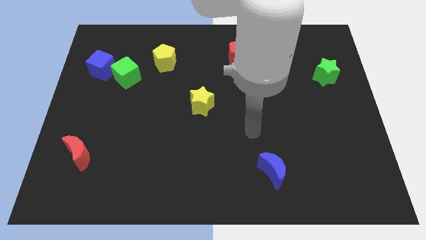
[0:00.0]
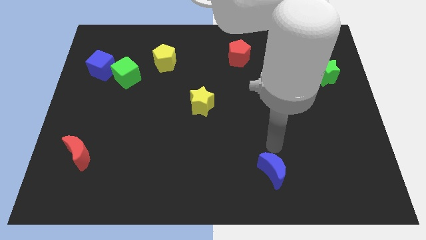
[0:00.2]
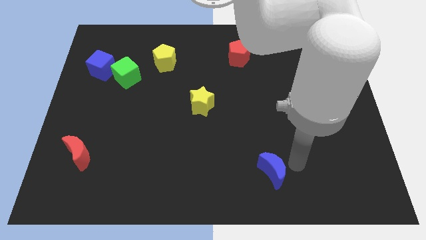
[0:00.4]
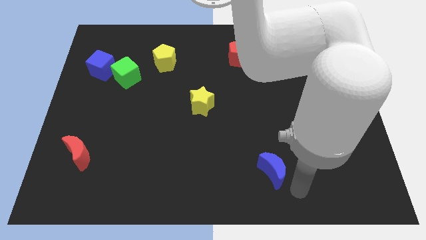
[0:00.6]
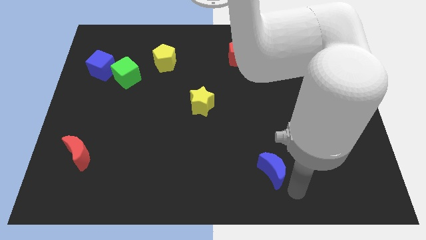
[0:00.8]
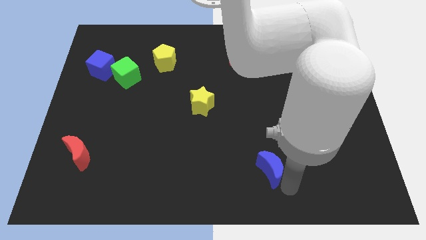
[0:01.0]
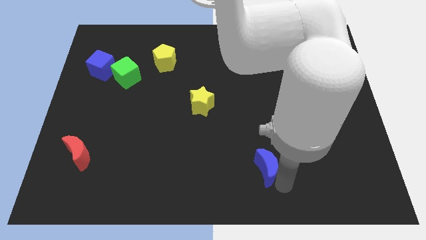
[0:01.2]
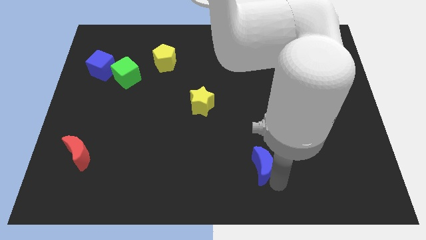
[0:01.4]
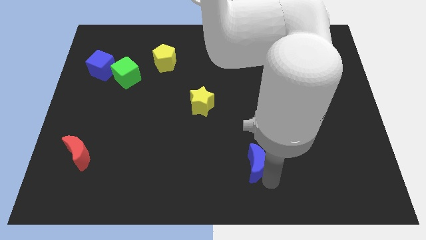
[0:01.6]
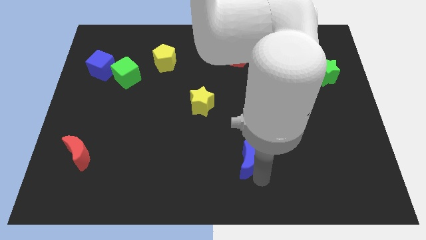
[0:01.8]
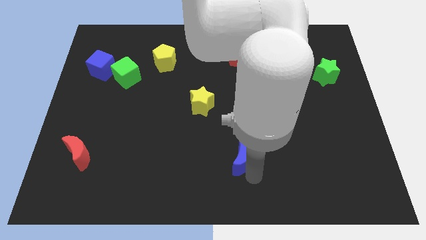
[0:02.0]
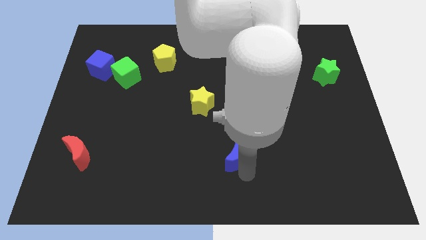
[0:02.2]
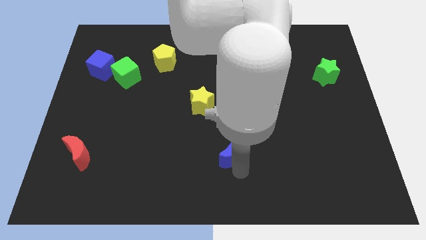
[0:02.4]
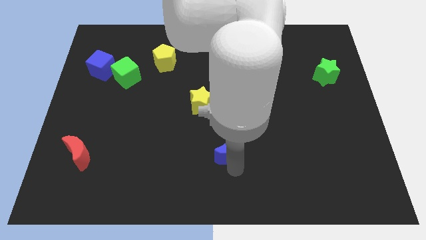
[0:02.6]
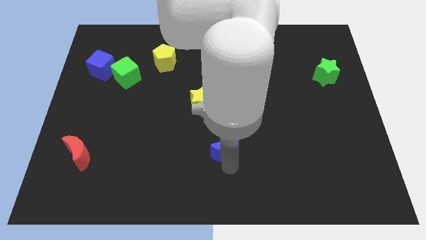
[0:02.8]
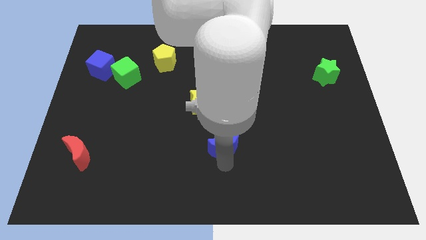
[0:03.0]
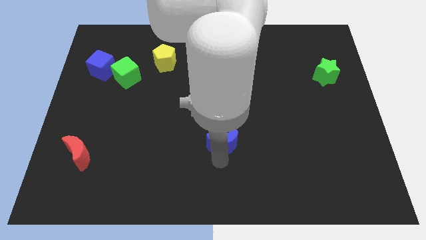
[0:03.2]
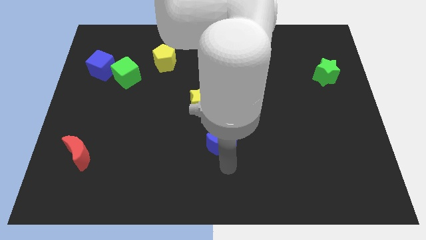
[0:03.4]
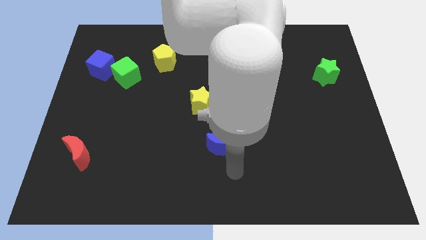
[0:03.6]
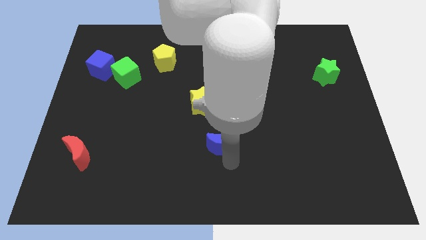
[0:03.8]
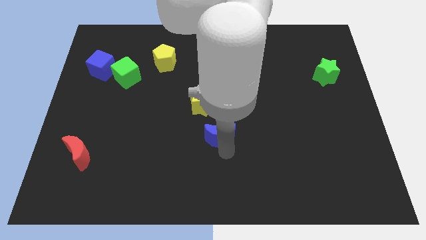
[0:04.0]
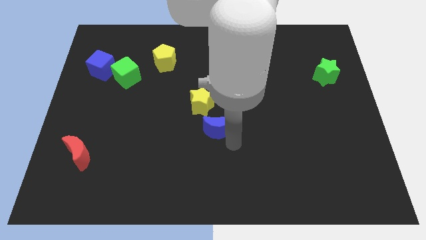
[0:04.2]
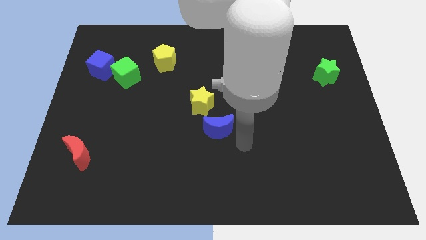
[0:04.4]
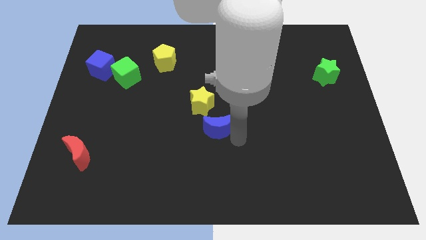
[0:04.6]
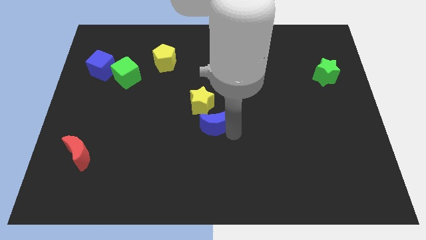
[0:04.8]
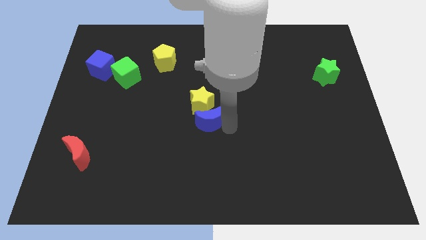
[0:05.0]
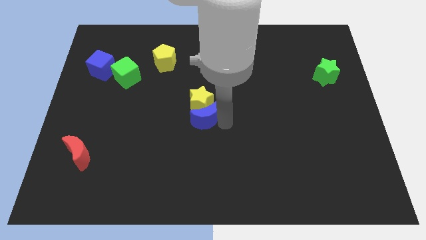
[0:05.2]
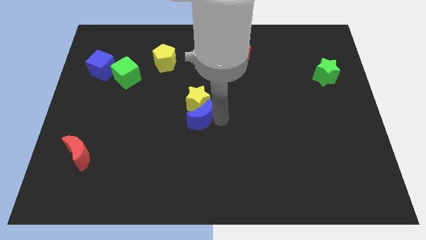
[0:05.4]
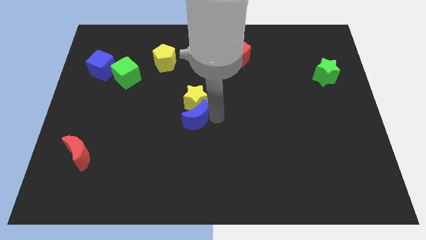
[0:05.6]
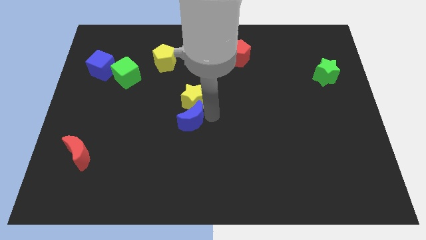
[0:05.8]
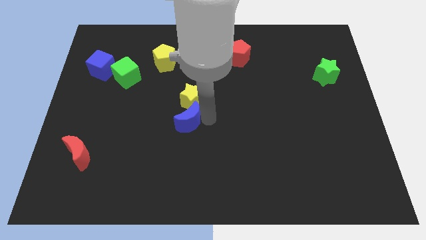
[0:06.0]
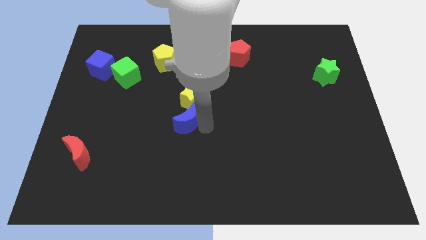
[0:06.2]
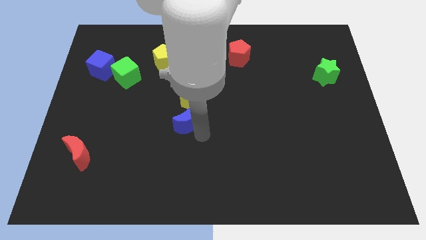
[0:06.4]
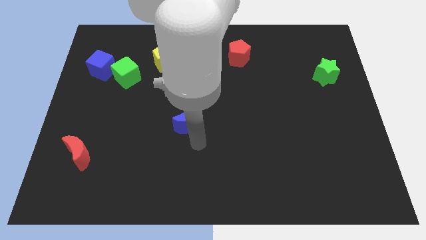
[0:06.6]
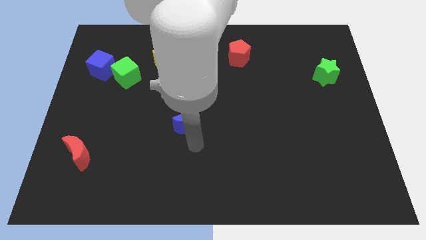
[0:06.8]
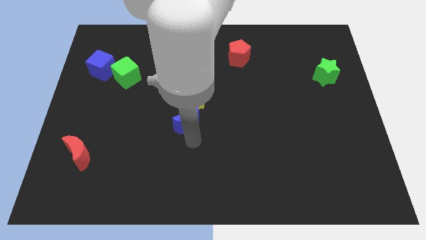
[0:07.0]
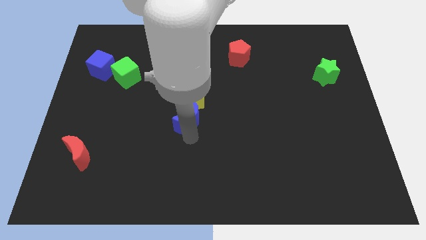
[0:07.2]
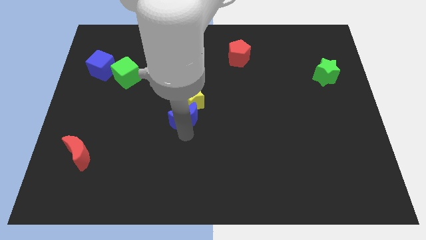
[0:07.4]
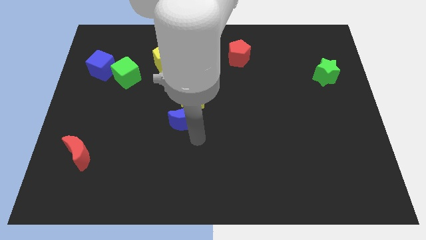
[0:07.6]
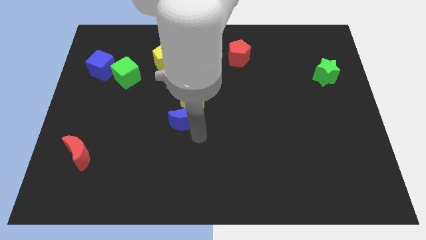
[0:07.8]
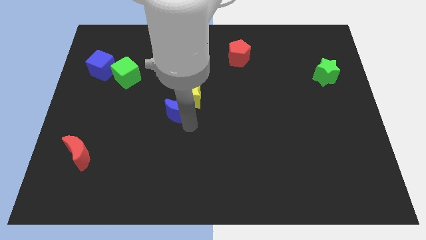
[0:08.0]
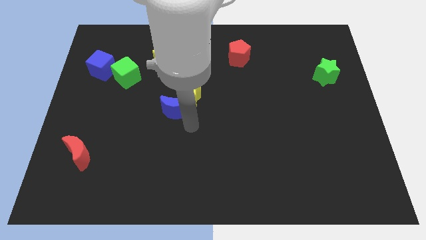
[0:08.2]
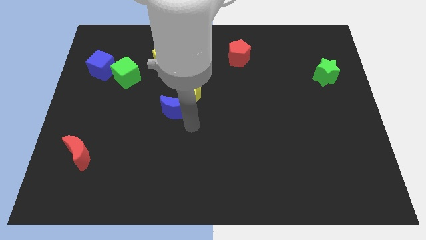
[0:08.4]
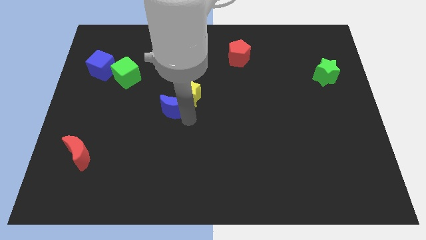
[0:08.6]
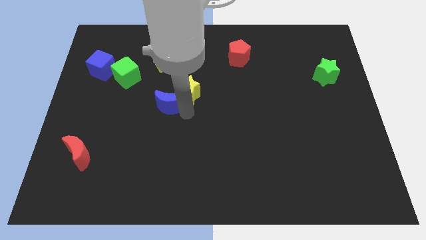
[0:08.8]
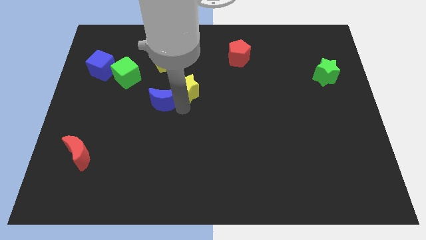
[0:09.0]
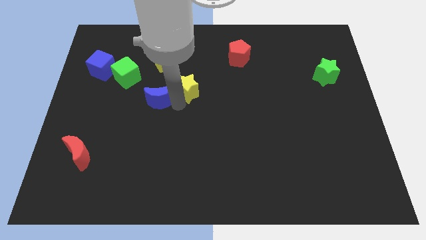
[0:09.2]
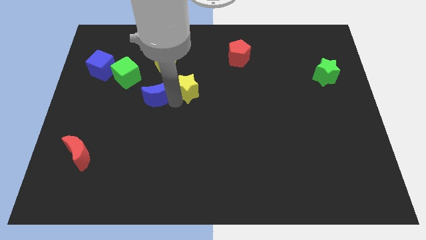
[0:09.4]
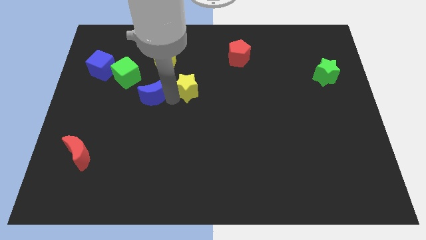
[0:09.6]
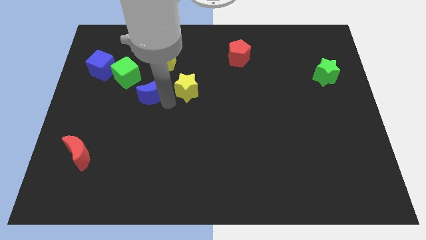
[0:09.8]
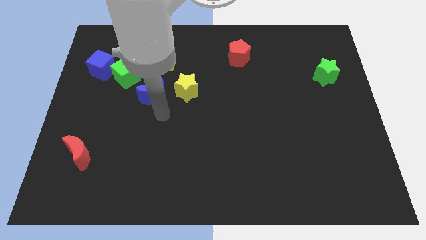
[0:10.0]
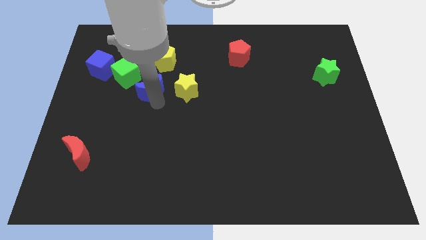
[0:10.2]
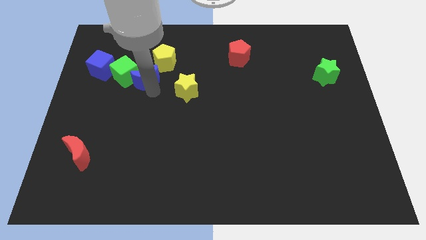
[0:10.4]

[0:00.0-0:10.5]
move the blue moon to the right of the blue cube

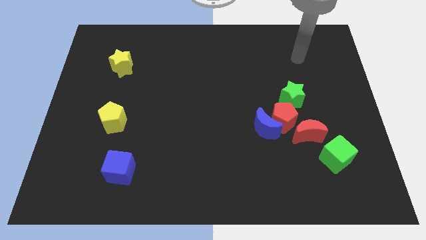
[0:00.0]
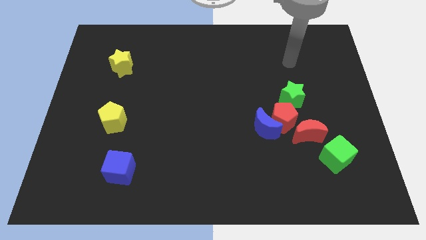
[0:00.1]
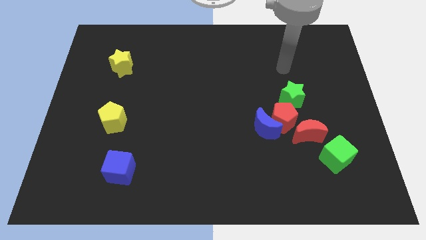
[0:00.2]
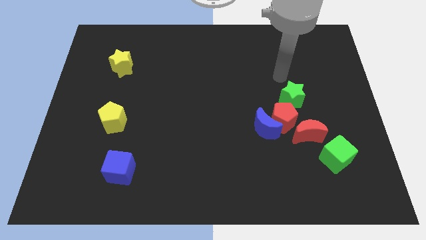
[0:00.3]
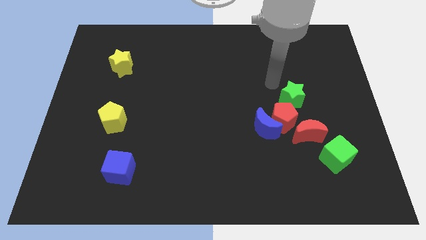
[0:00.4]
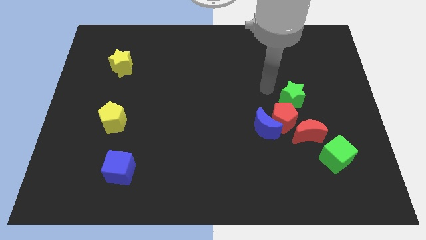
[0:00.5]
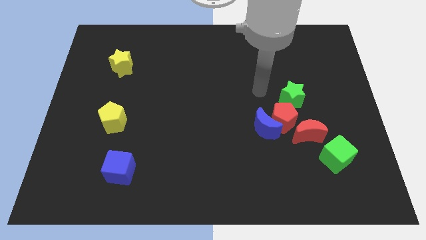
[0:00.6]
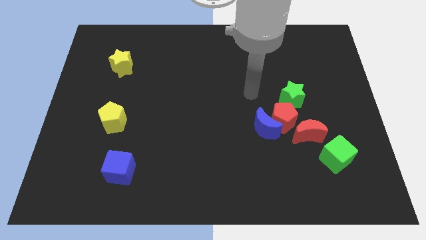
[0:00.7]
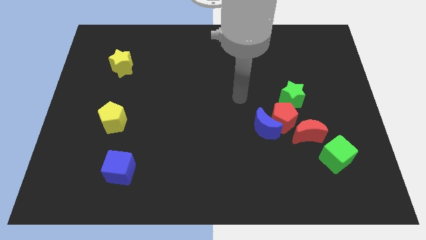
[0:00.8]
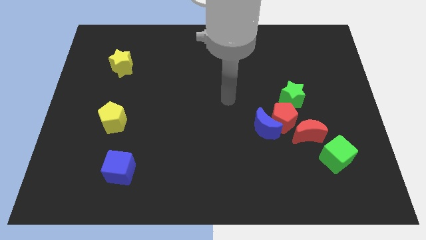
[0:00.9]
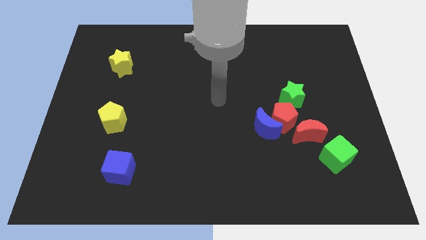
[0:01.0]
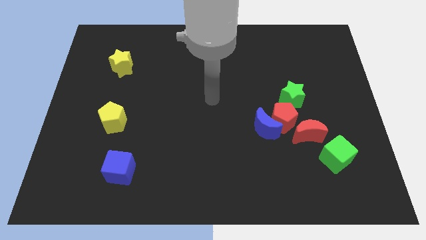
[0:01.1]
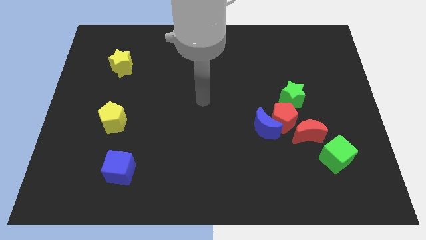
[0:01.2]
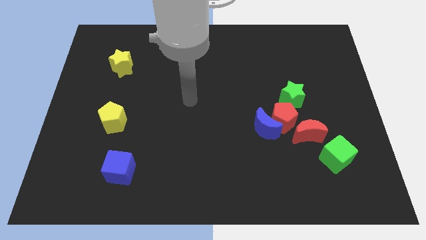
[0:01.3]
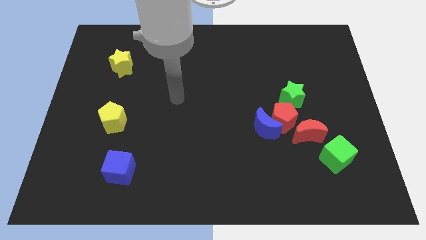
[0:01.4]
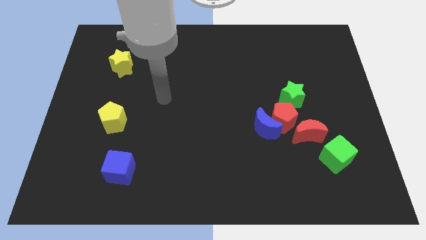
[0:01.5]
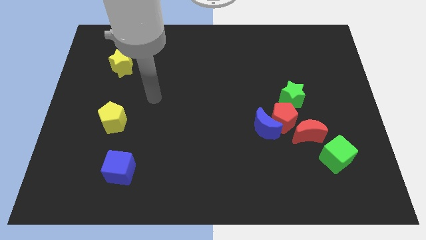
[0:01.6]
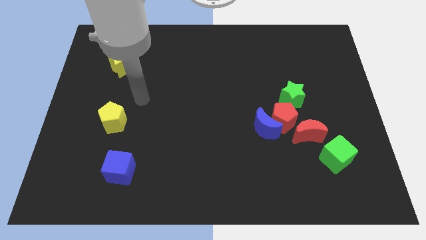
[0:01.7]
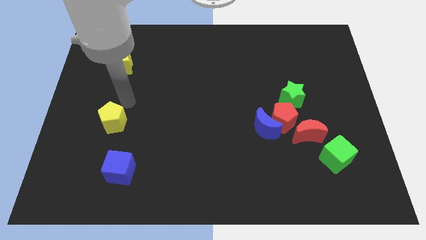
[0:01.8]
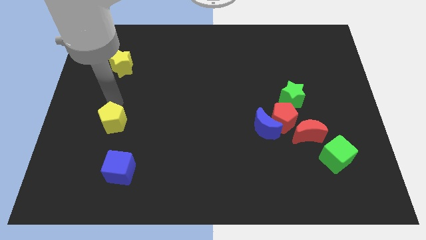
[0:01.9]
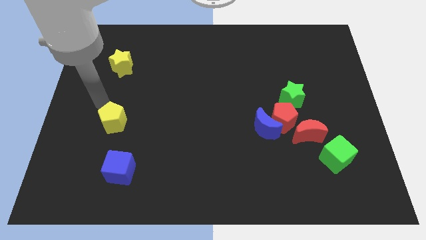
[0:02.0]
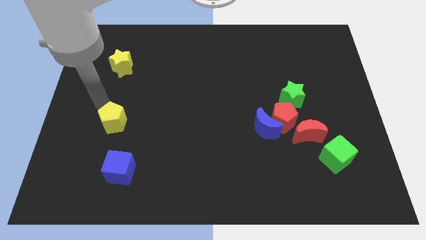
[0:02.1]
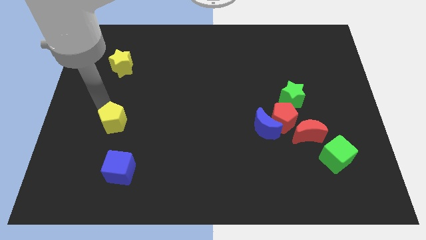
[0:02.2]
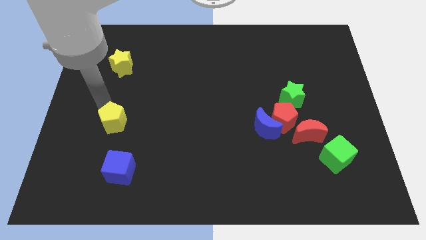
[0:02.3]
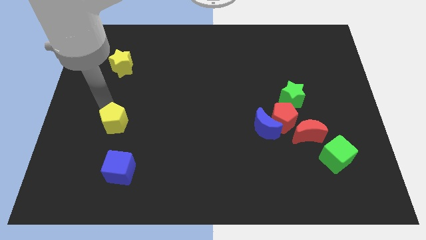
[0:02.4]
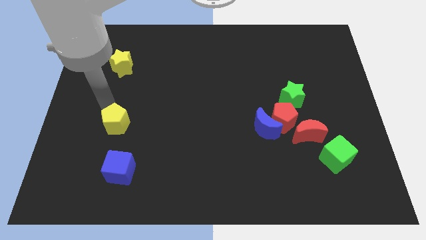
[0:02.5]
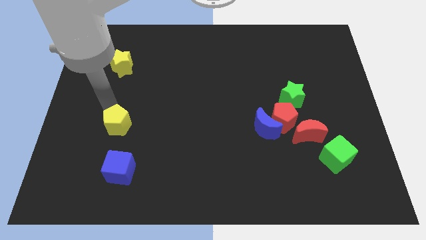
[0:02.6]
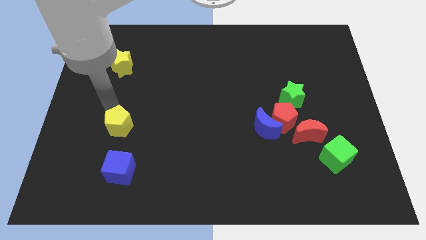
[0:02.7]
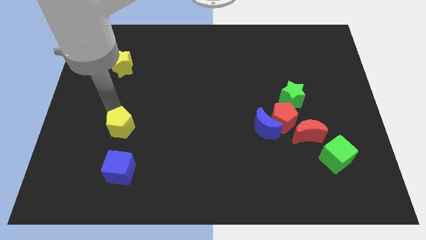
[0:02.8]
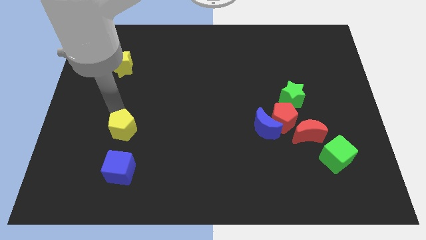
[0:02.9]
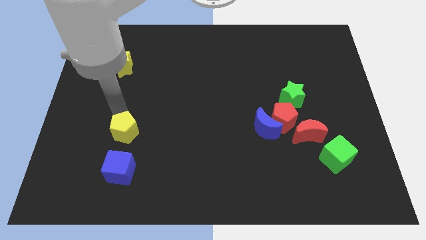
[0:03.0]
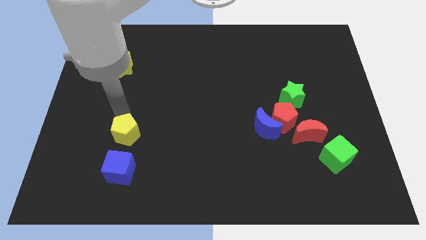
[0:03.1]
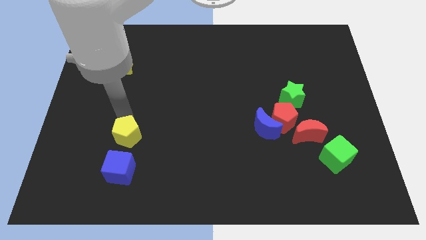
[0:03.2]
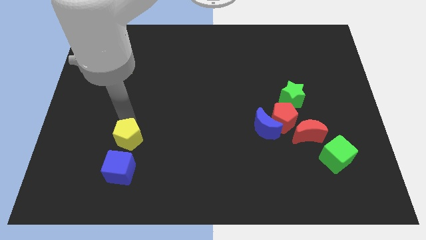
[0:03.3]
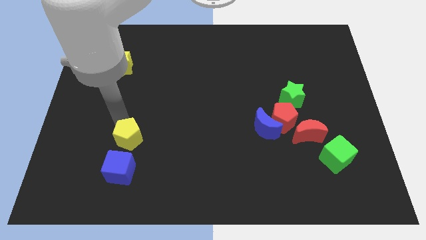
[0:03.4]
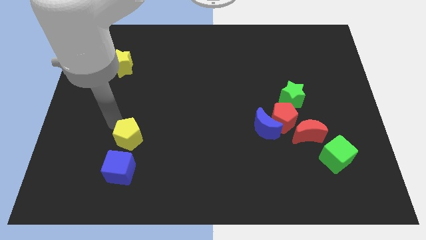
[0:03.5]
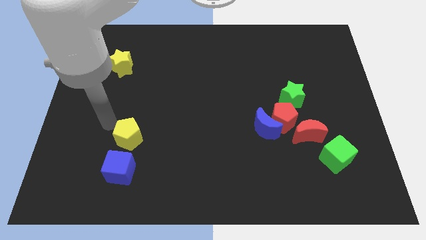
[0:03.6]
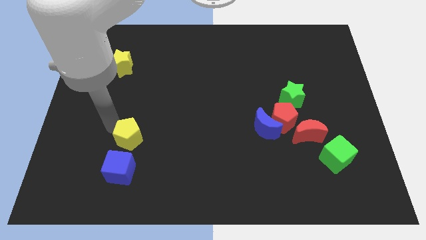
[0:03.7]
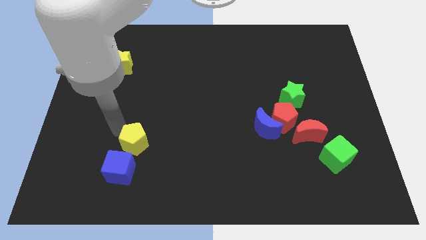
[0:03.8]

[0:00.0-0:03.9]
move the yellow pentagon to the top right side of the blue cube
